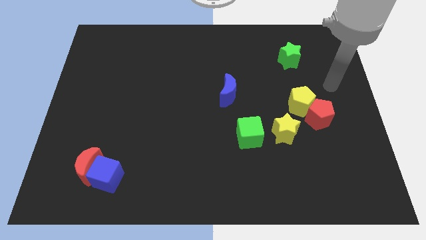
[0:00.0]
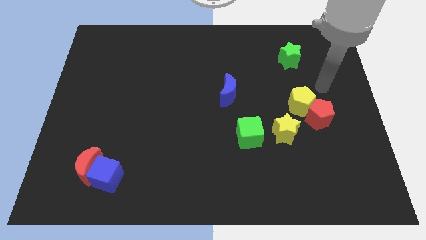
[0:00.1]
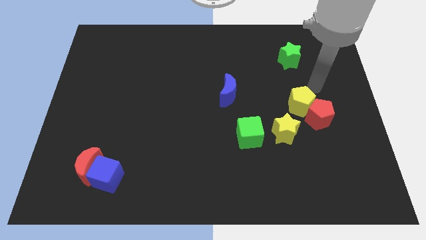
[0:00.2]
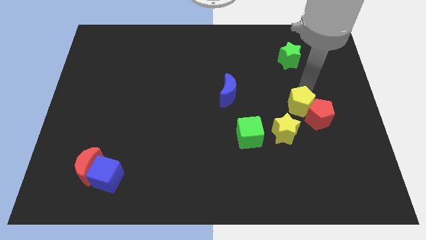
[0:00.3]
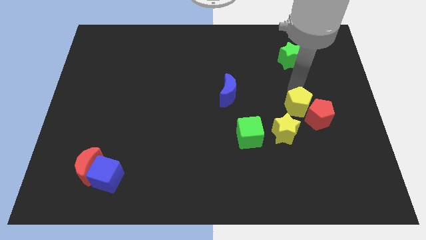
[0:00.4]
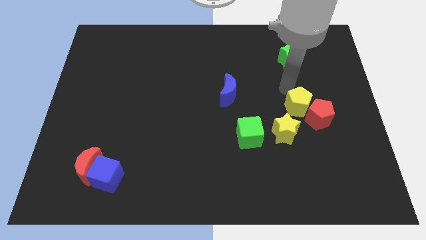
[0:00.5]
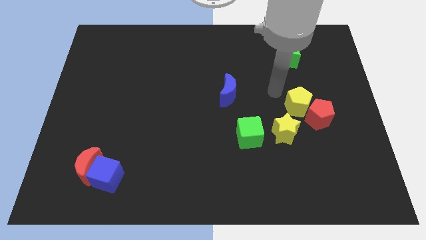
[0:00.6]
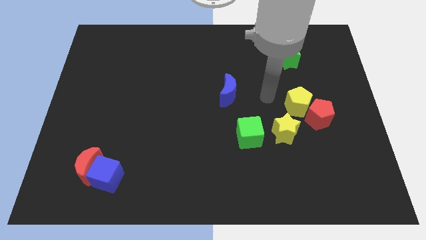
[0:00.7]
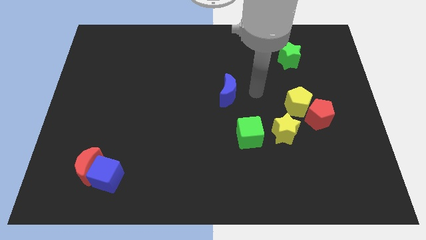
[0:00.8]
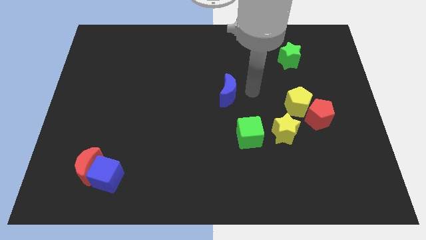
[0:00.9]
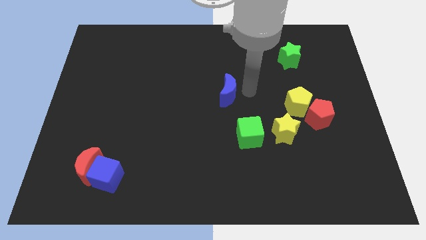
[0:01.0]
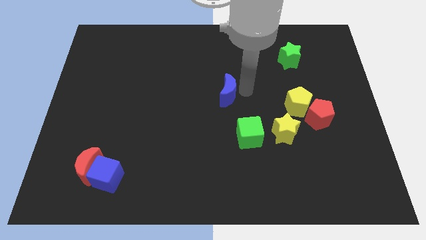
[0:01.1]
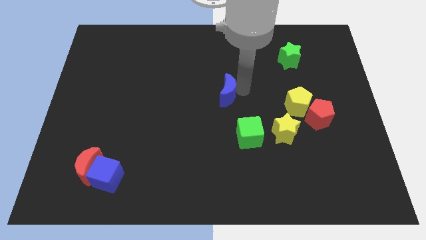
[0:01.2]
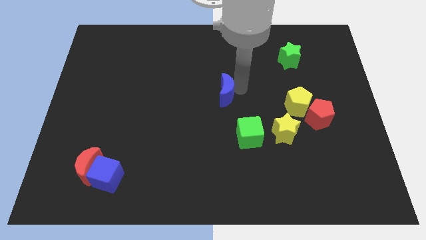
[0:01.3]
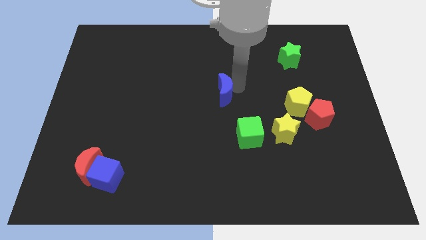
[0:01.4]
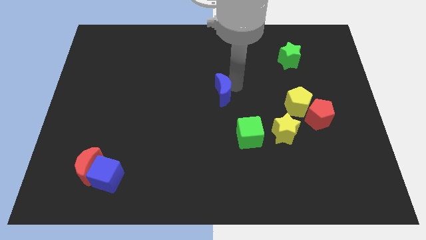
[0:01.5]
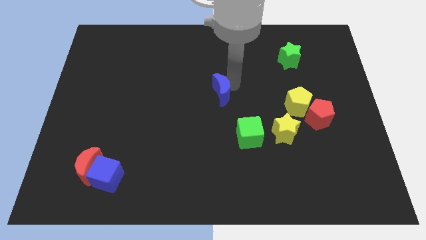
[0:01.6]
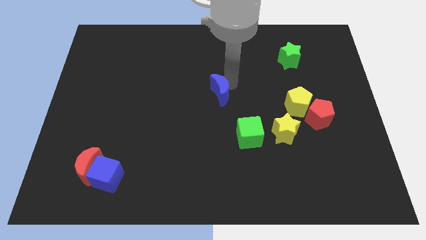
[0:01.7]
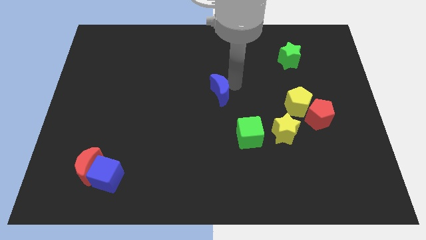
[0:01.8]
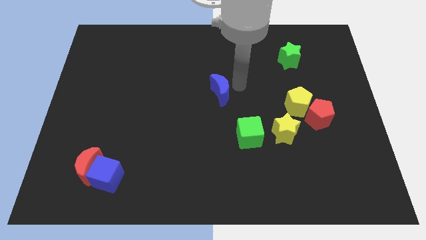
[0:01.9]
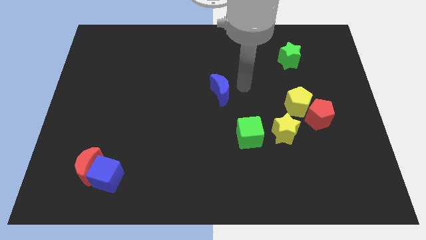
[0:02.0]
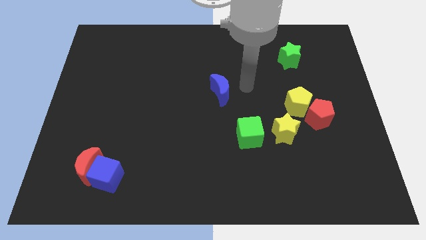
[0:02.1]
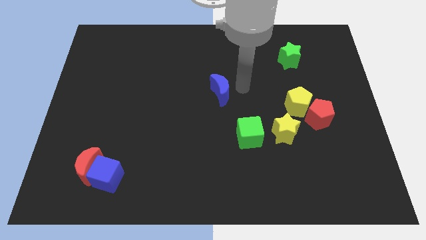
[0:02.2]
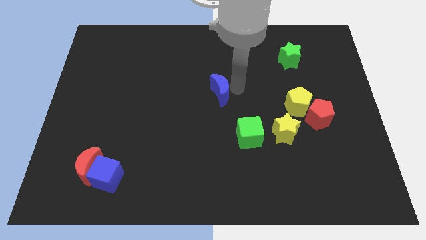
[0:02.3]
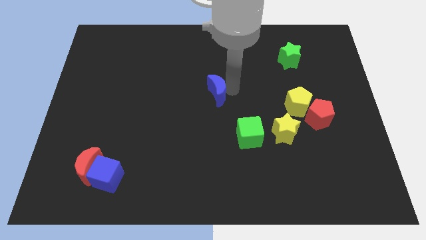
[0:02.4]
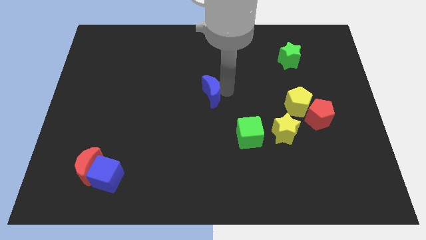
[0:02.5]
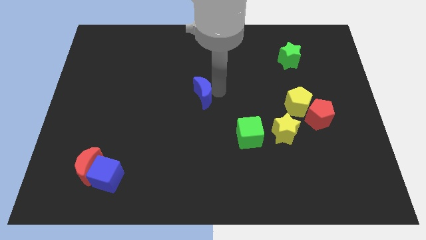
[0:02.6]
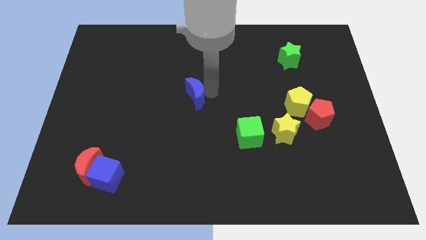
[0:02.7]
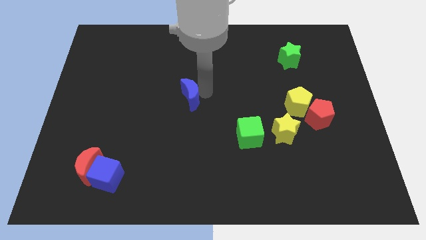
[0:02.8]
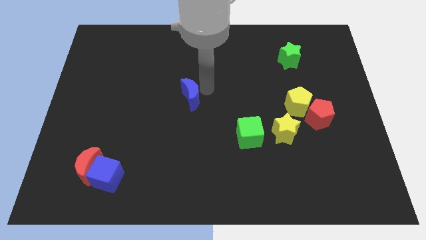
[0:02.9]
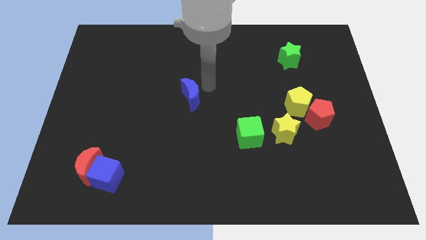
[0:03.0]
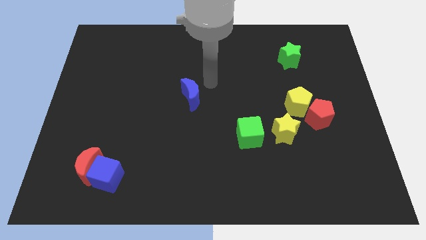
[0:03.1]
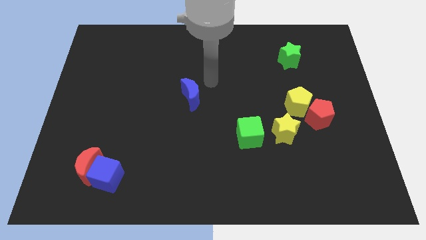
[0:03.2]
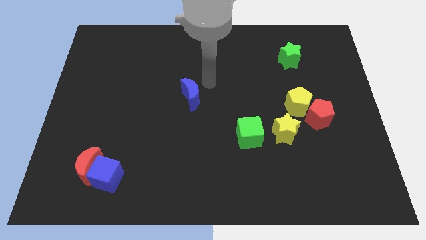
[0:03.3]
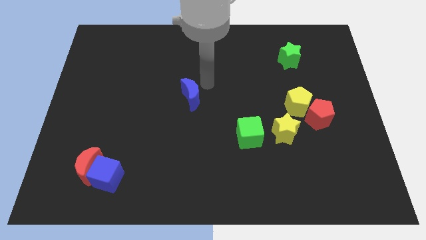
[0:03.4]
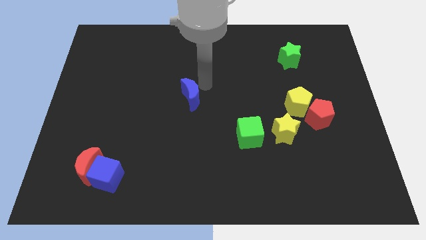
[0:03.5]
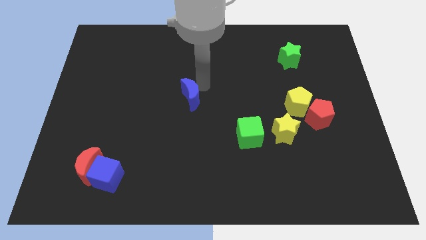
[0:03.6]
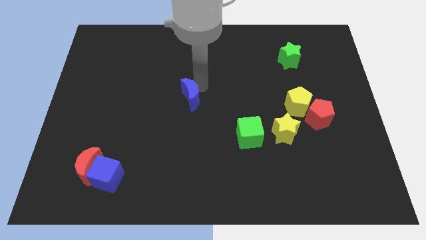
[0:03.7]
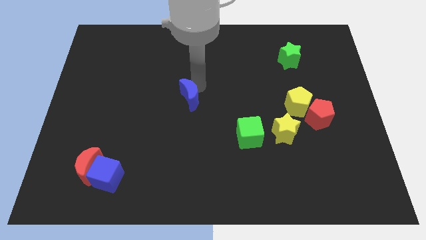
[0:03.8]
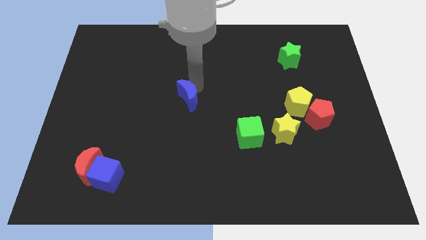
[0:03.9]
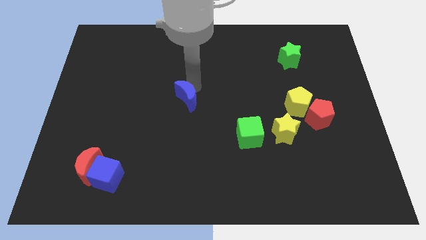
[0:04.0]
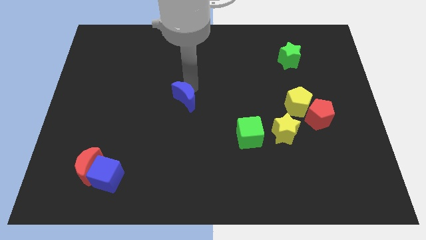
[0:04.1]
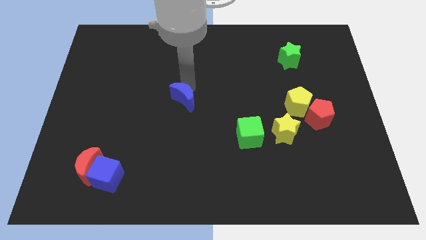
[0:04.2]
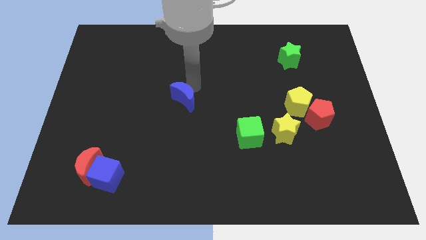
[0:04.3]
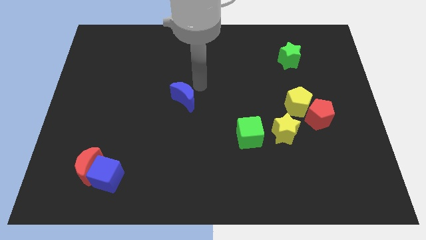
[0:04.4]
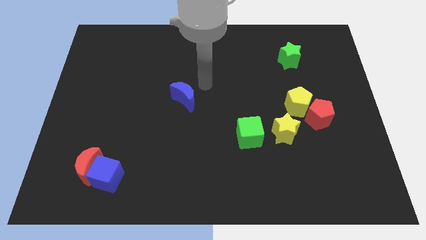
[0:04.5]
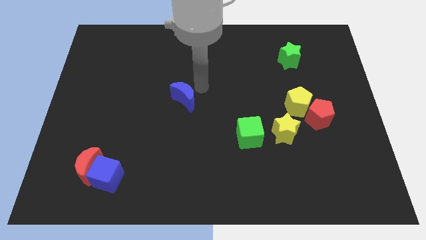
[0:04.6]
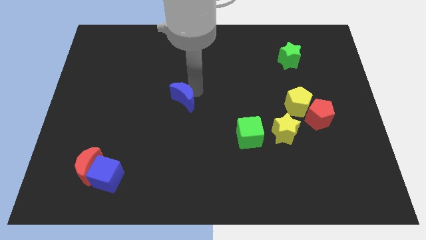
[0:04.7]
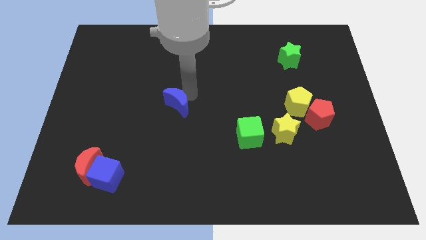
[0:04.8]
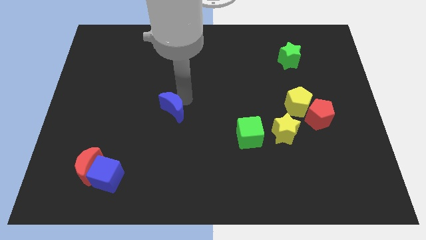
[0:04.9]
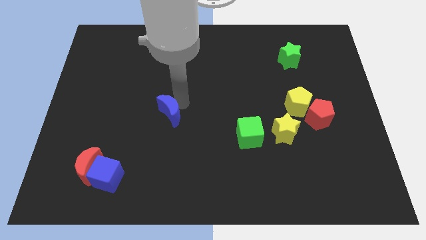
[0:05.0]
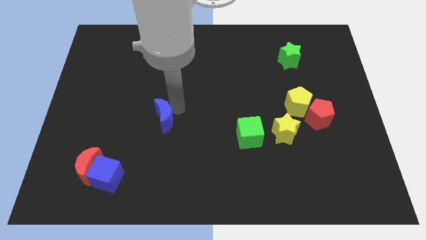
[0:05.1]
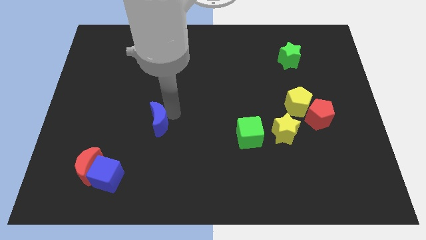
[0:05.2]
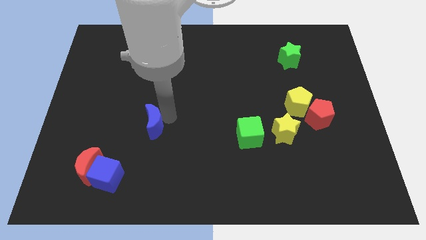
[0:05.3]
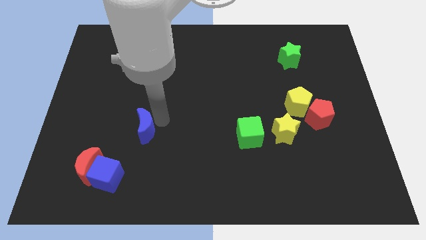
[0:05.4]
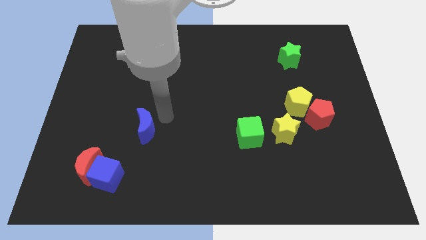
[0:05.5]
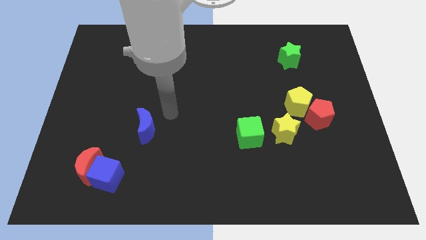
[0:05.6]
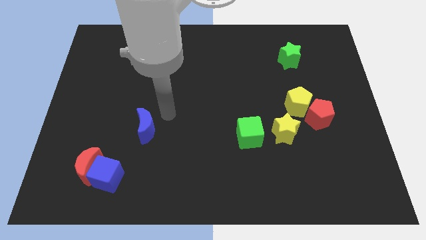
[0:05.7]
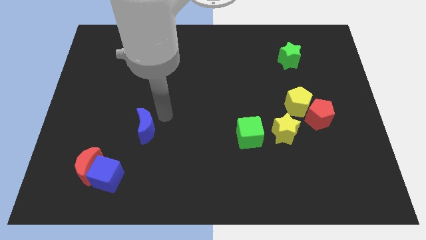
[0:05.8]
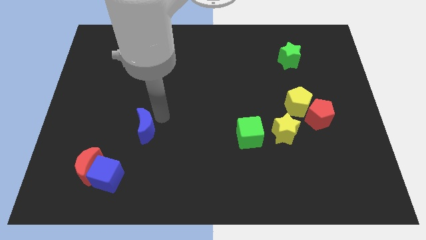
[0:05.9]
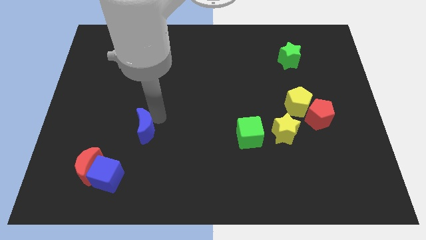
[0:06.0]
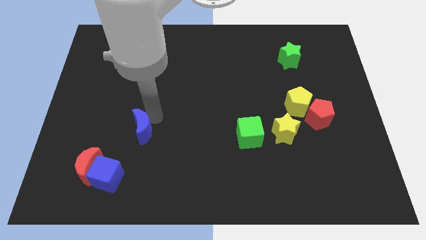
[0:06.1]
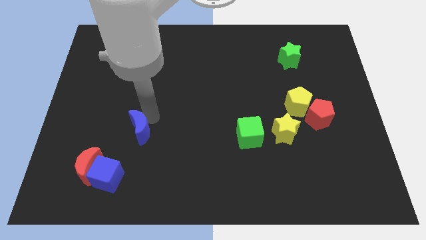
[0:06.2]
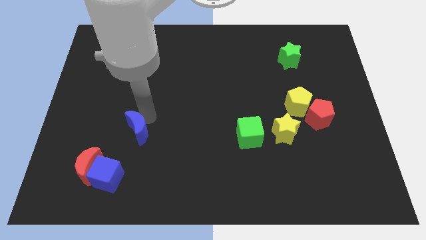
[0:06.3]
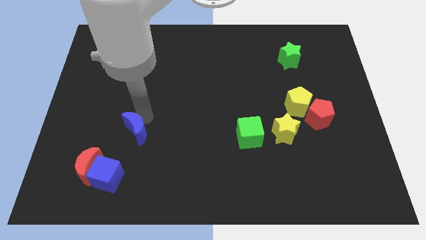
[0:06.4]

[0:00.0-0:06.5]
push the blue moon to the top right of the red moon

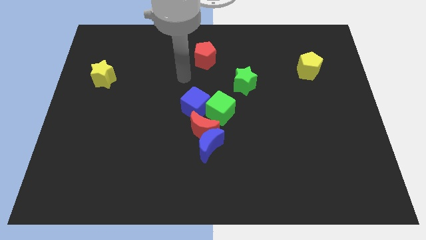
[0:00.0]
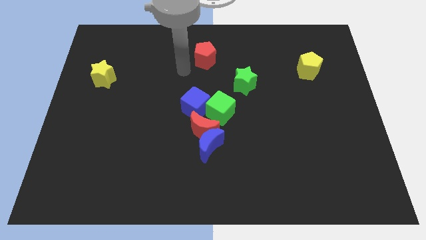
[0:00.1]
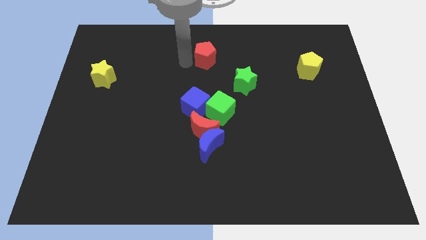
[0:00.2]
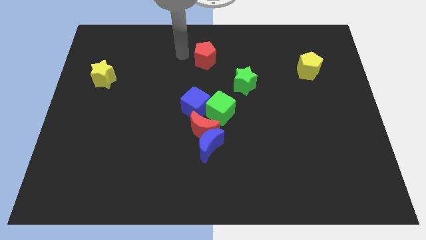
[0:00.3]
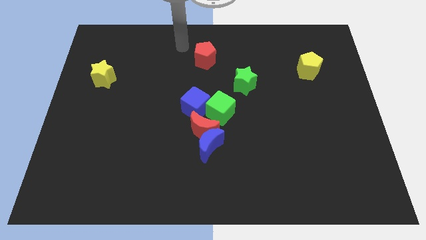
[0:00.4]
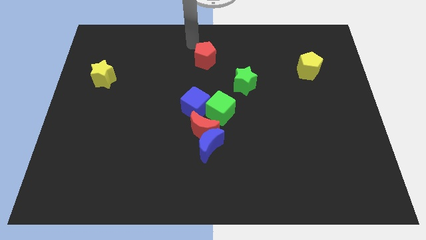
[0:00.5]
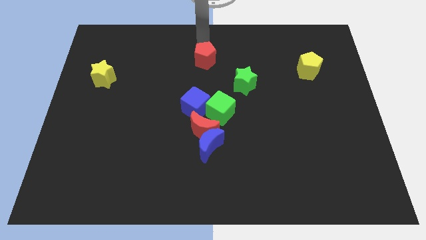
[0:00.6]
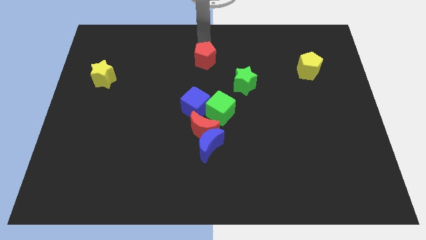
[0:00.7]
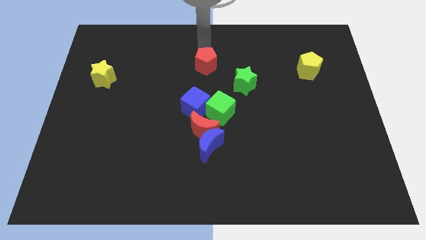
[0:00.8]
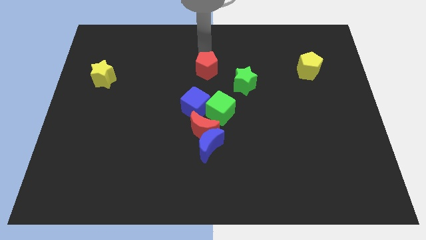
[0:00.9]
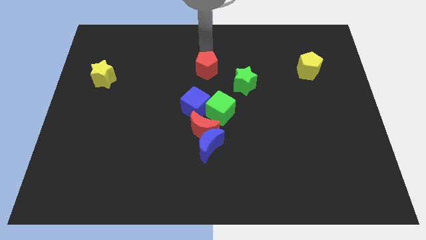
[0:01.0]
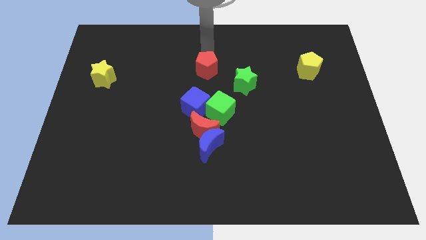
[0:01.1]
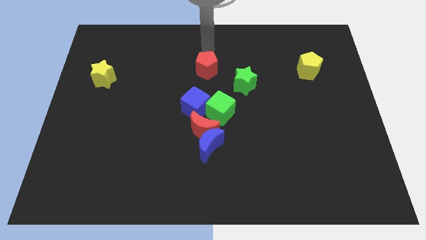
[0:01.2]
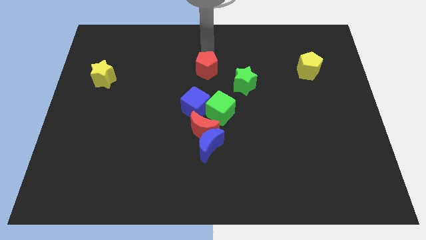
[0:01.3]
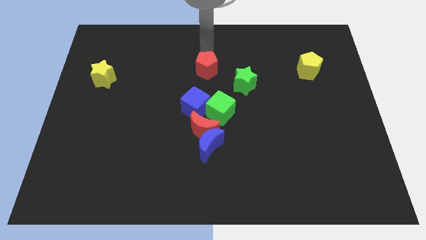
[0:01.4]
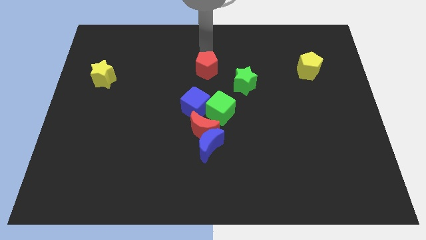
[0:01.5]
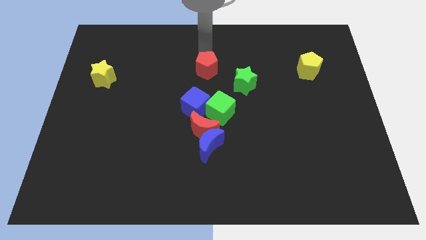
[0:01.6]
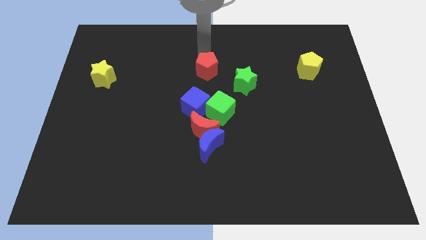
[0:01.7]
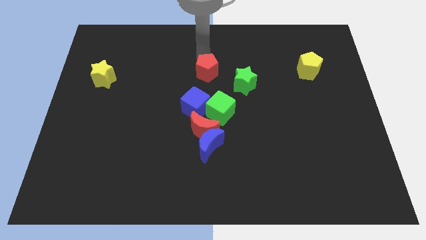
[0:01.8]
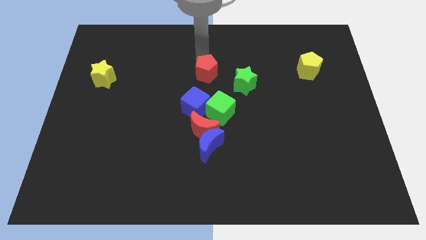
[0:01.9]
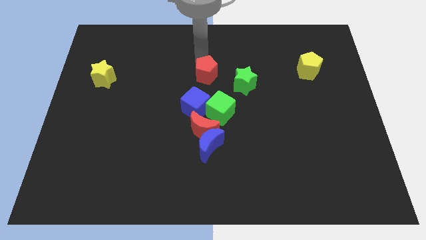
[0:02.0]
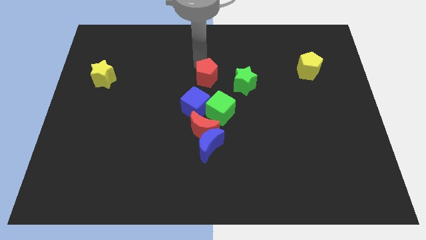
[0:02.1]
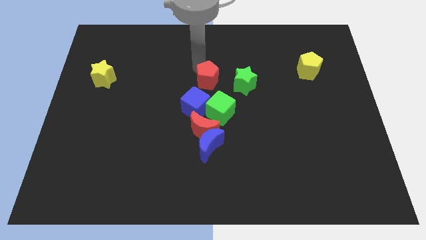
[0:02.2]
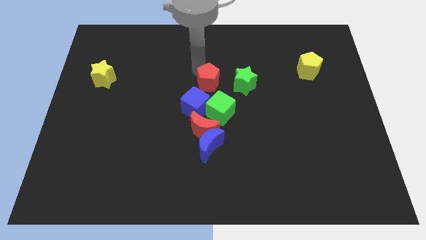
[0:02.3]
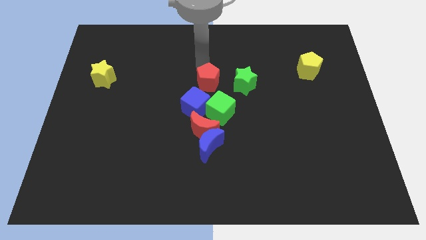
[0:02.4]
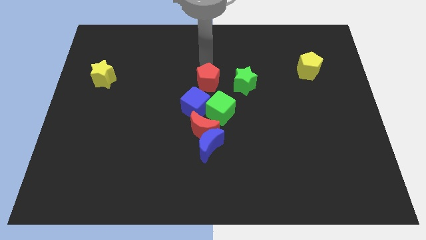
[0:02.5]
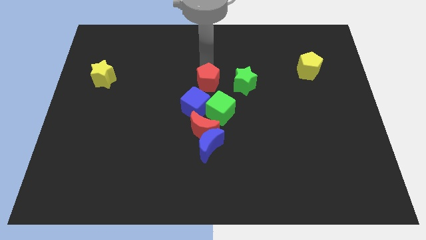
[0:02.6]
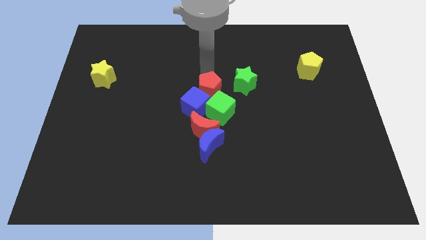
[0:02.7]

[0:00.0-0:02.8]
slide the red pentagon to the top side of the blue moon
